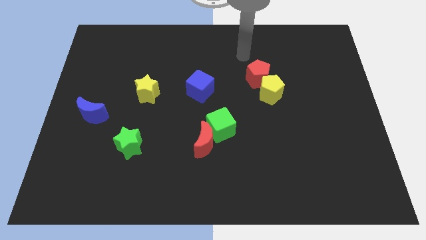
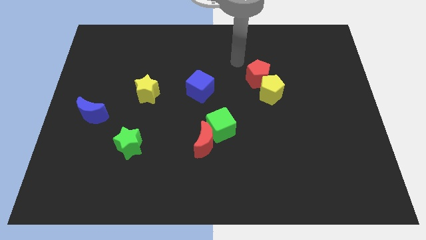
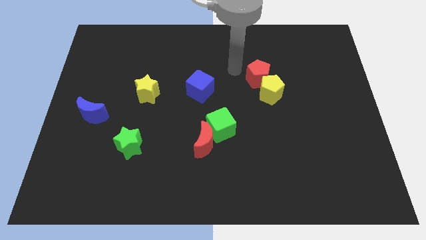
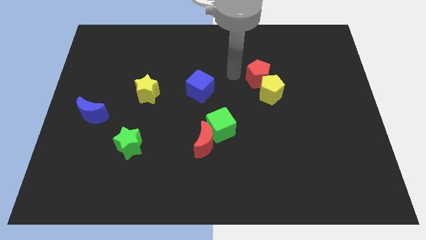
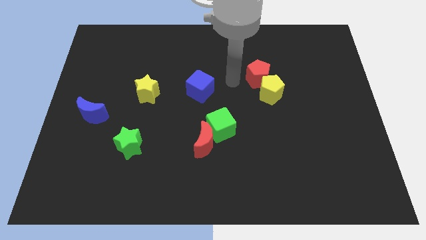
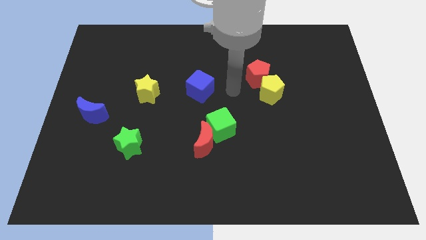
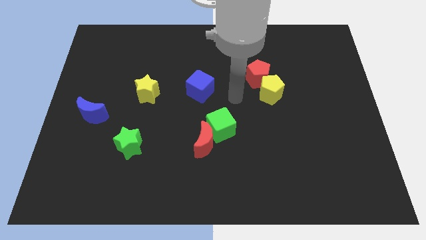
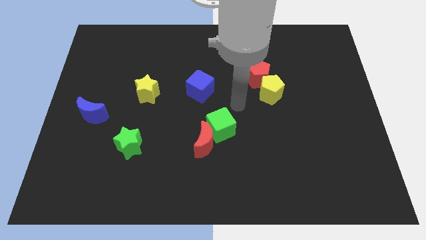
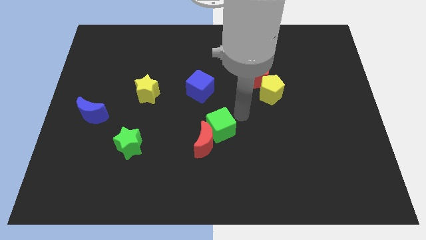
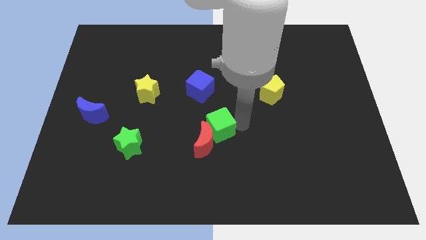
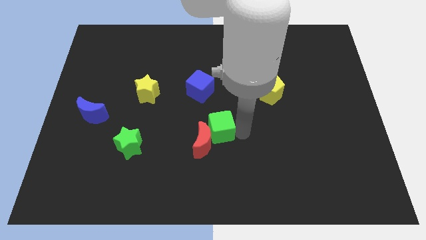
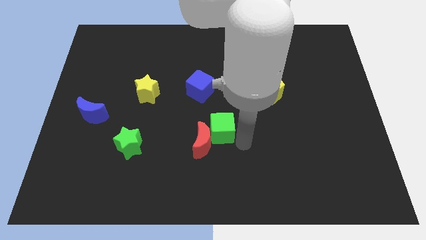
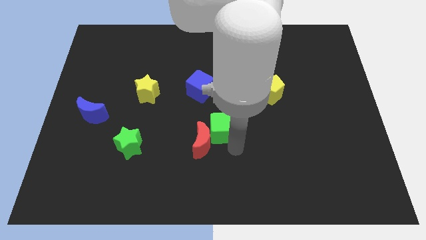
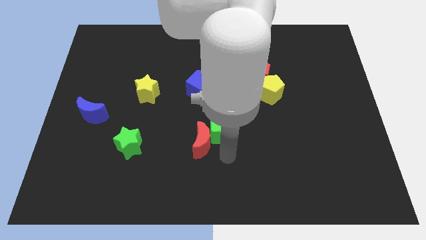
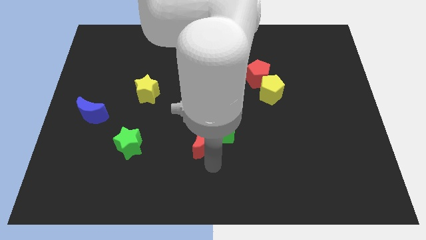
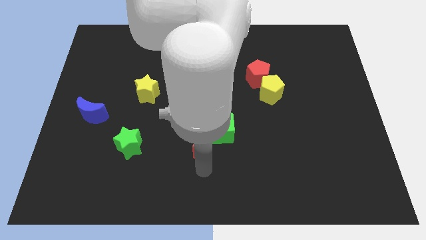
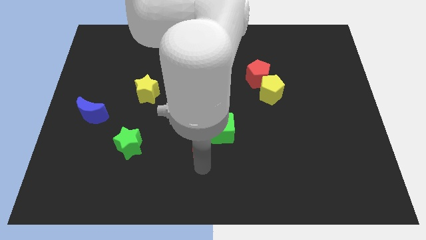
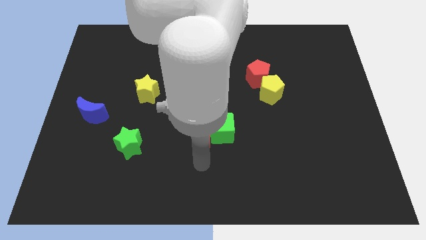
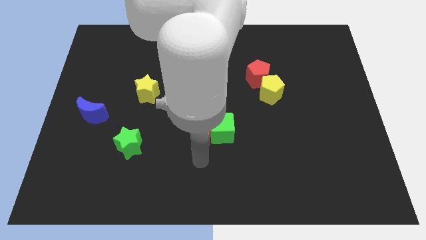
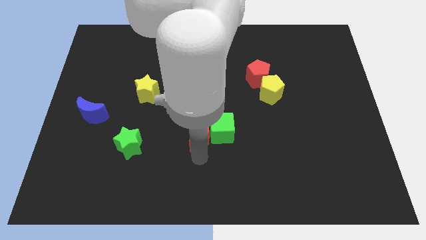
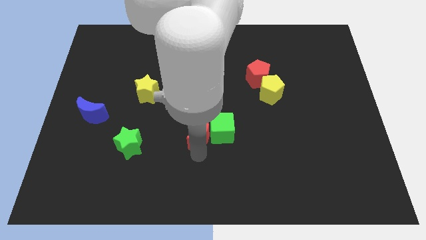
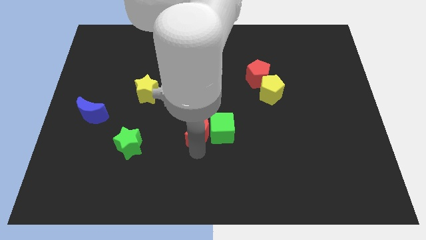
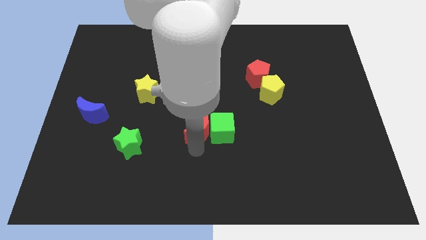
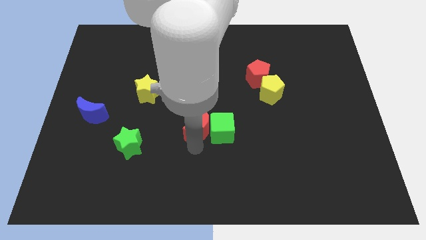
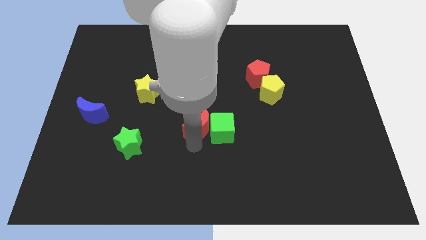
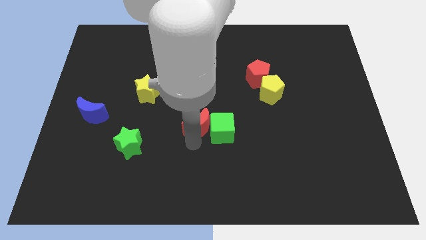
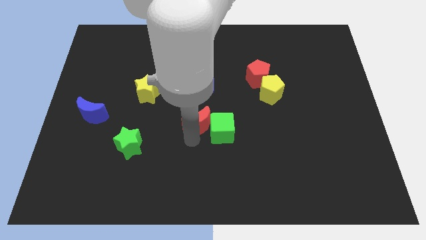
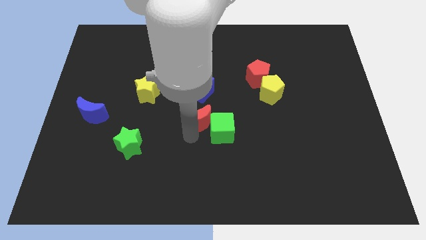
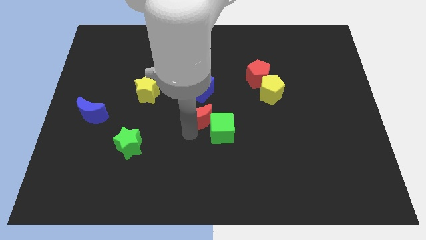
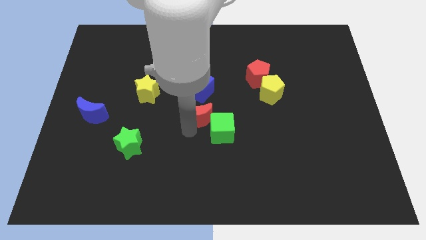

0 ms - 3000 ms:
slide the red moon up a little bit

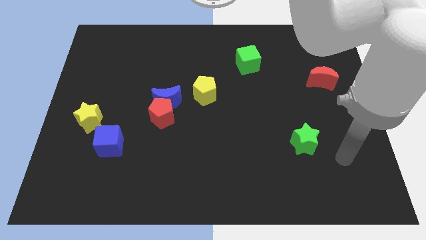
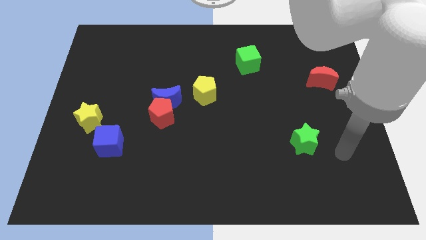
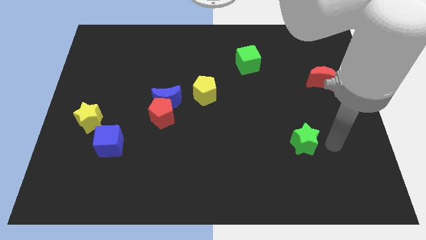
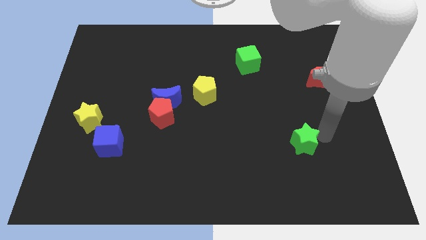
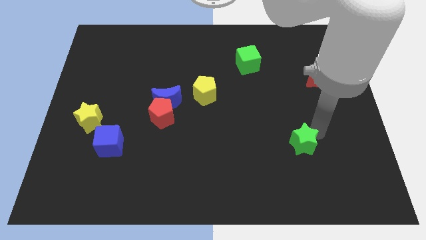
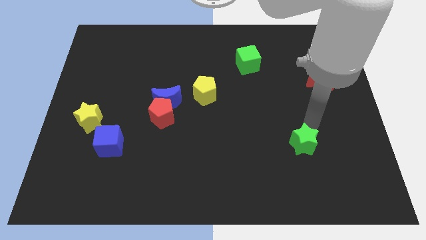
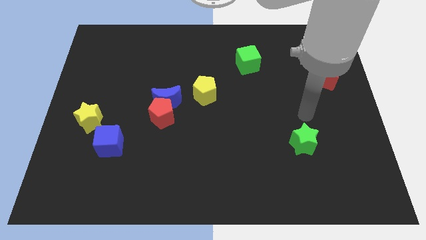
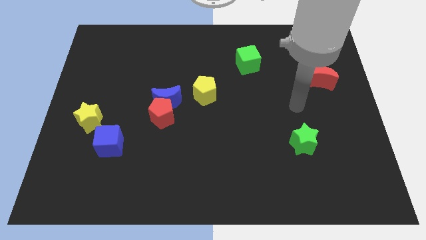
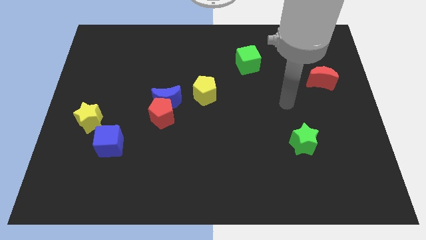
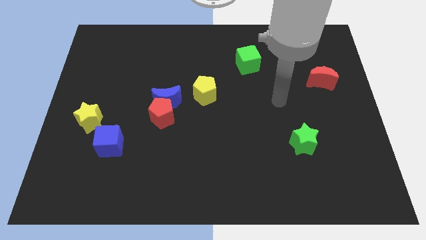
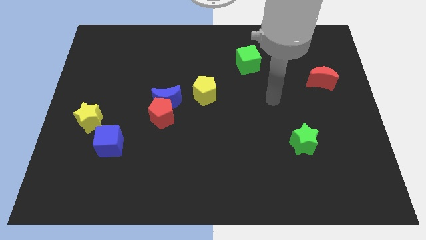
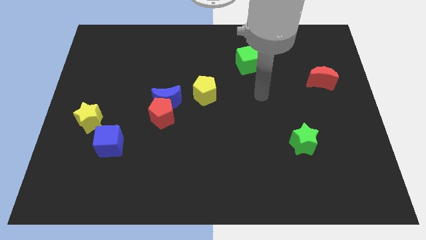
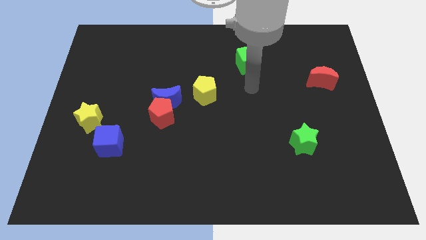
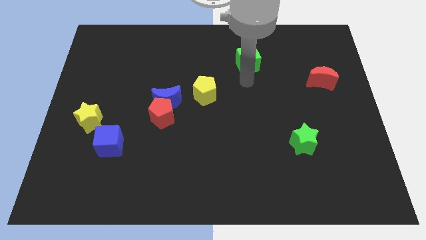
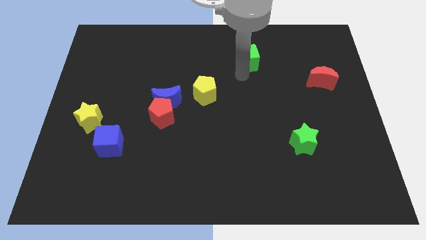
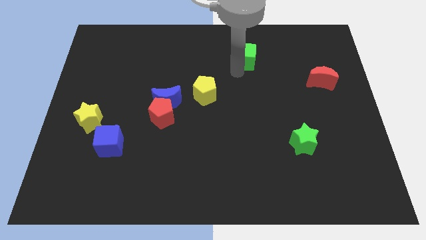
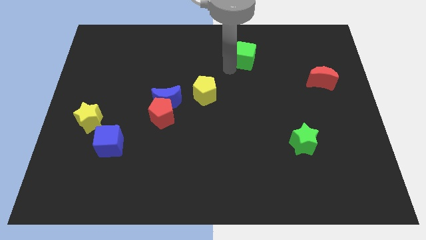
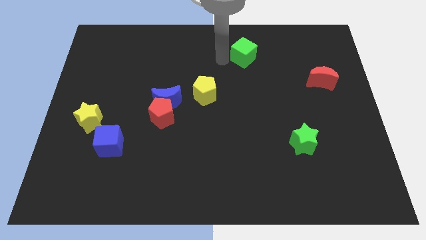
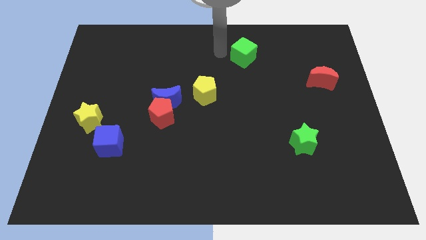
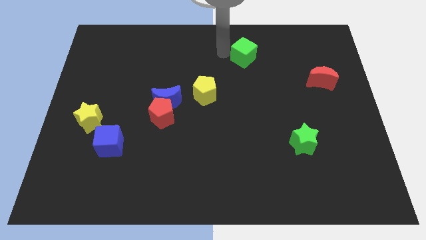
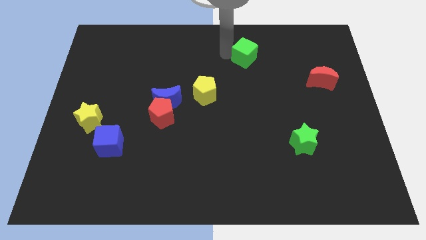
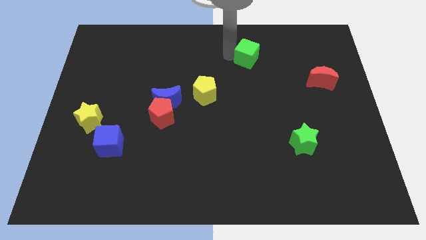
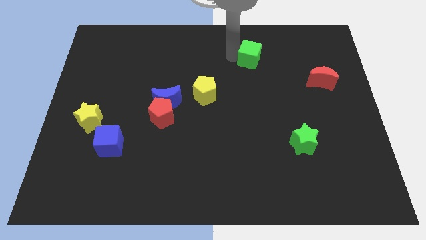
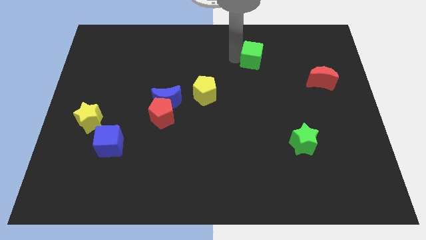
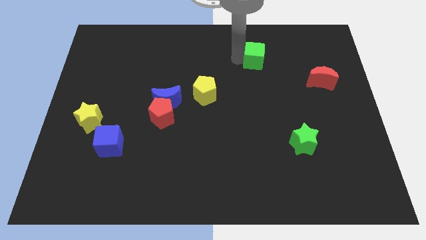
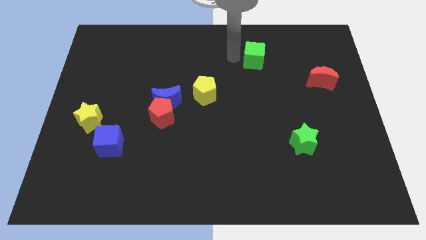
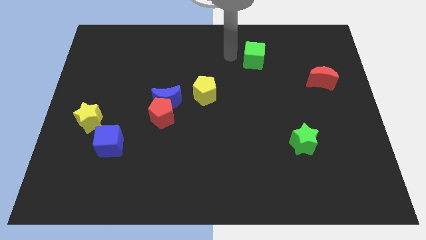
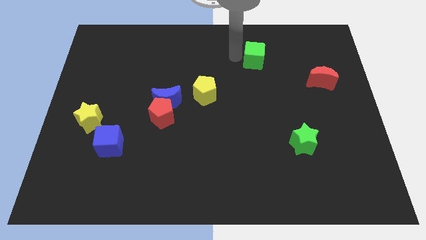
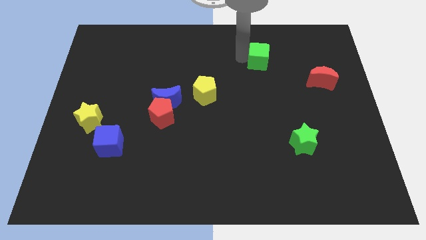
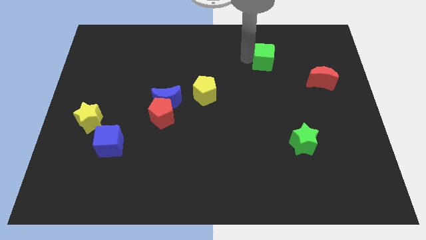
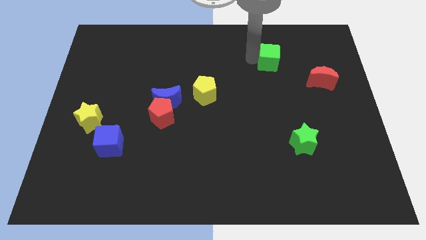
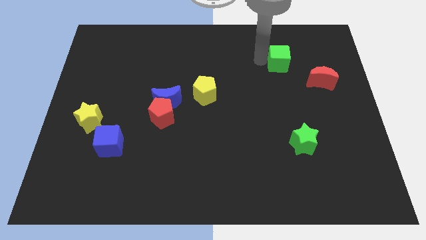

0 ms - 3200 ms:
move the green cube right slightly

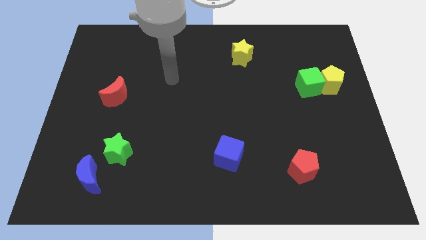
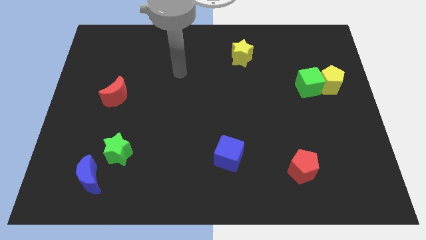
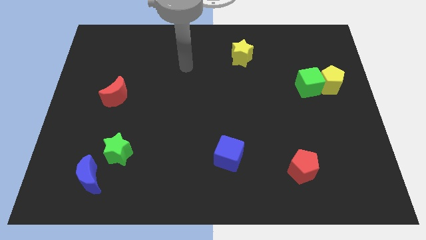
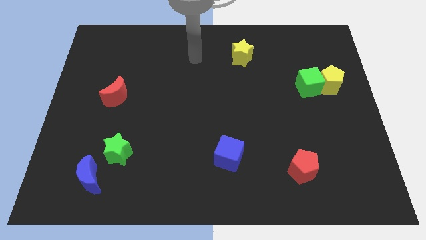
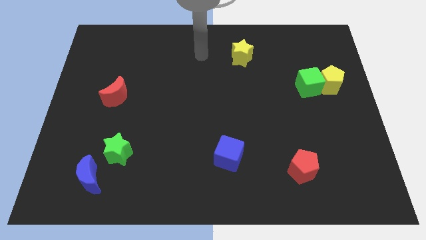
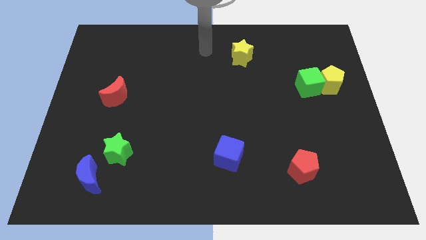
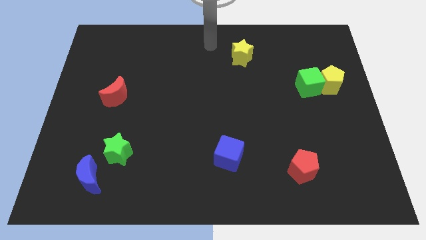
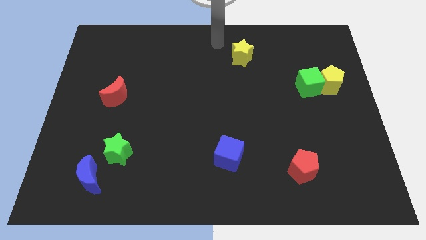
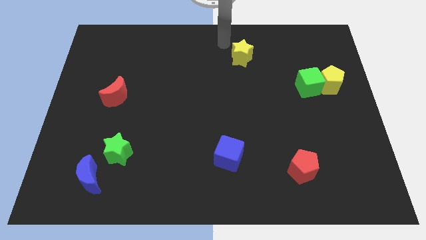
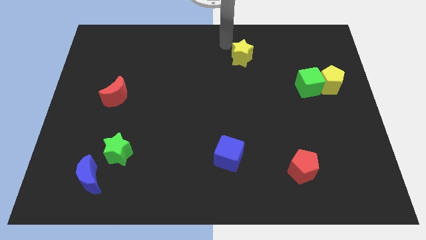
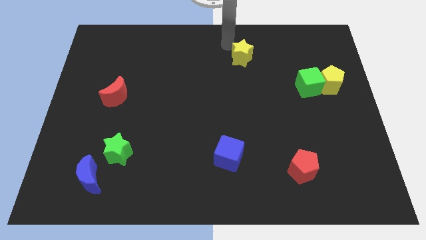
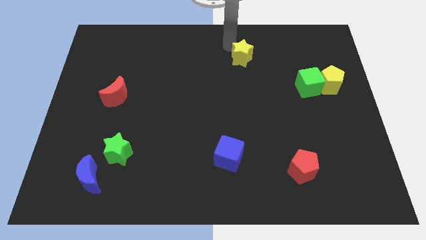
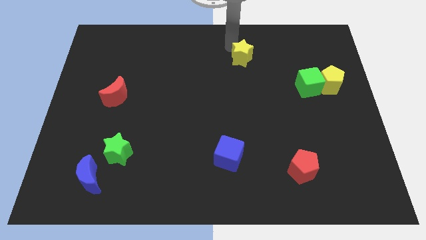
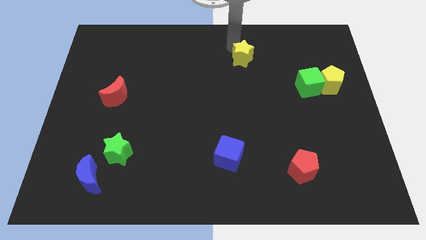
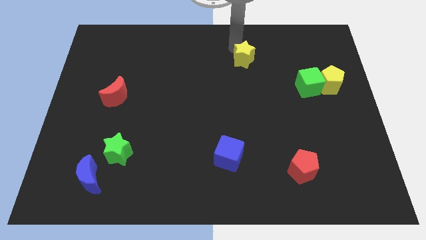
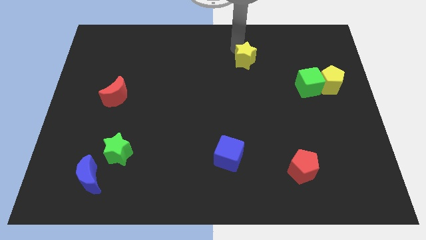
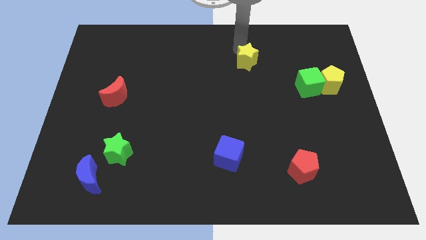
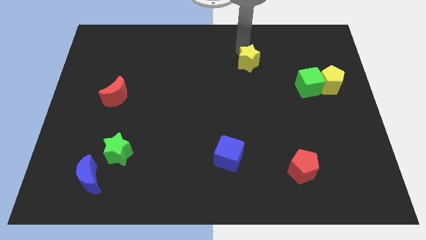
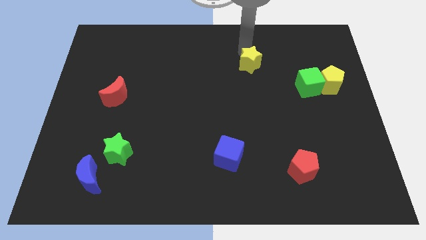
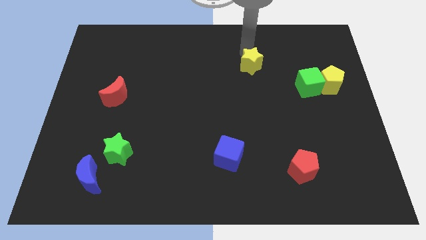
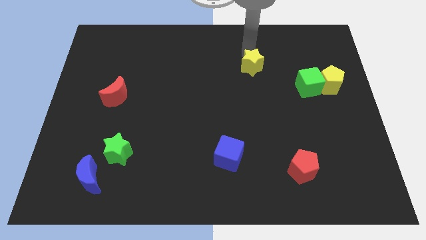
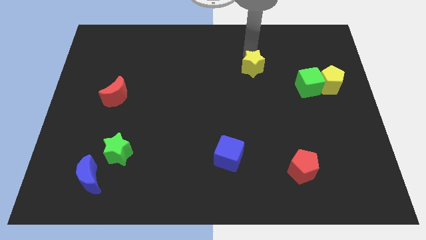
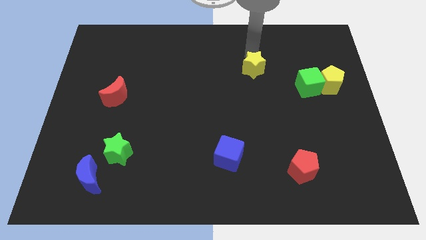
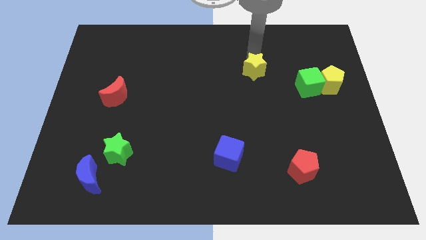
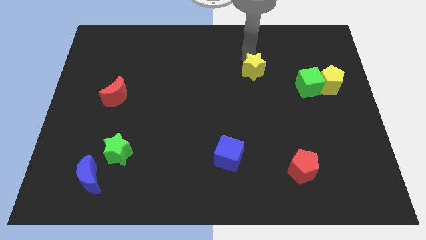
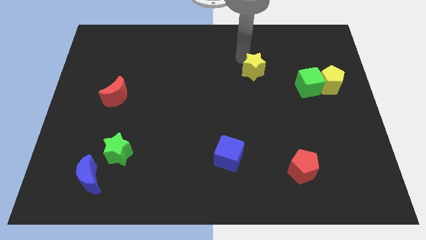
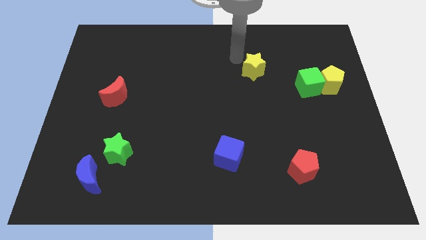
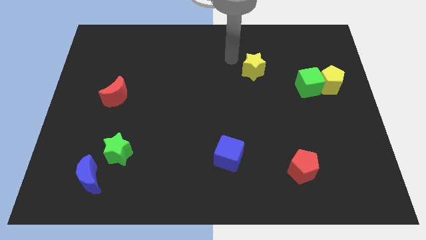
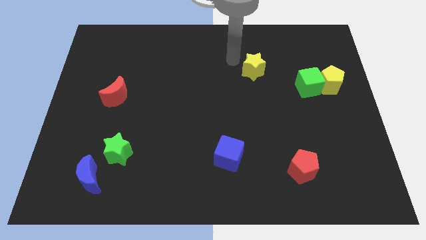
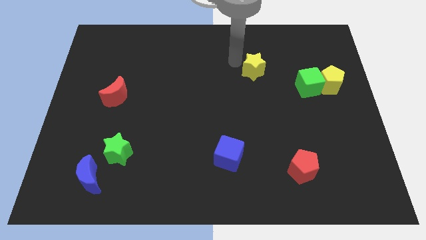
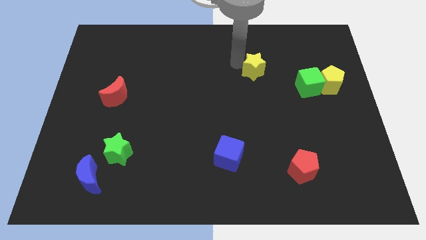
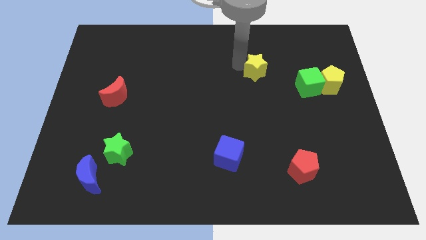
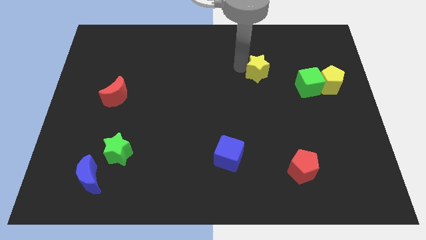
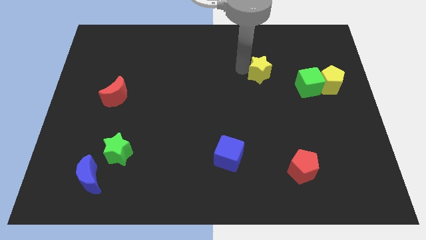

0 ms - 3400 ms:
move the yellow star a bit down and right diagonally
